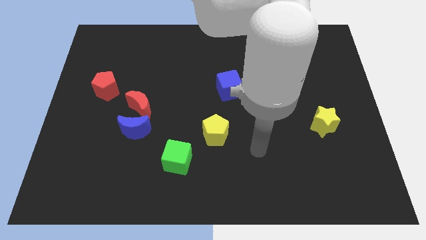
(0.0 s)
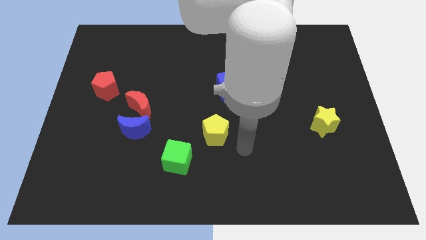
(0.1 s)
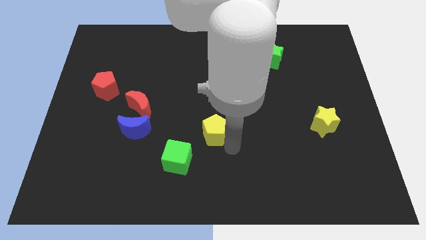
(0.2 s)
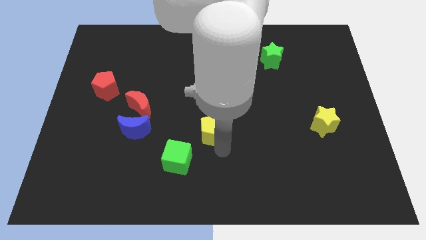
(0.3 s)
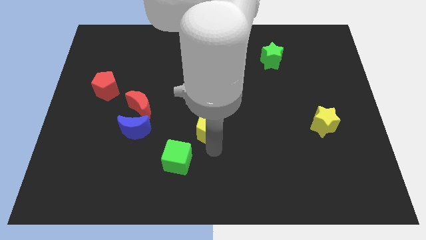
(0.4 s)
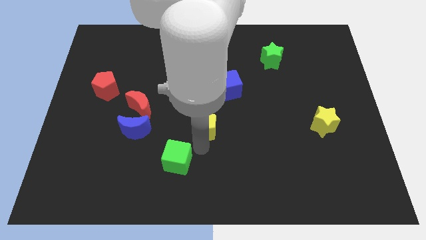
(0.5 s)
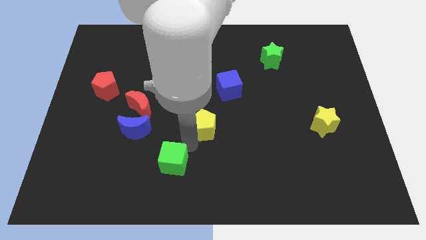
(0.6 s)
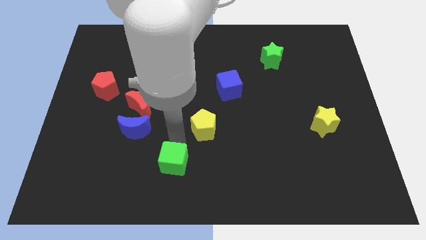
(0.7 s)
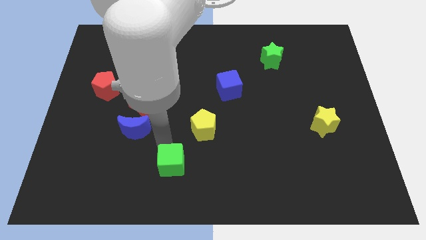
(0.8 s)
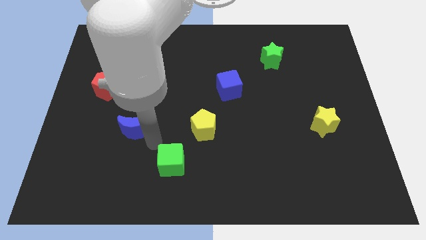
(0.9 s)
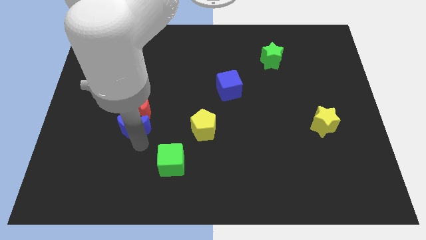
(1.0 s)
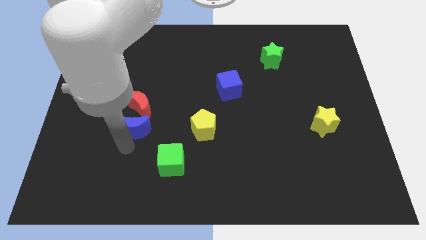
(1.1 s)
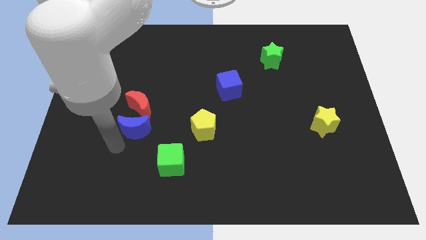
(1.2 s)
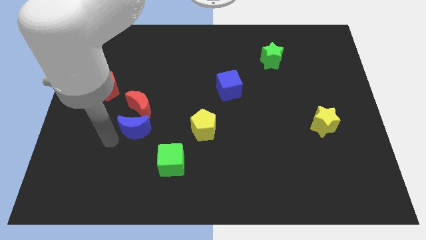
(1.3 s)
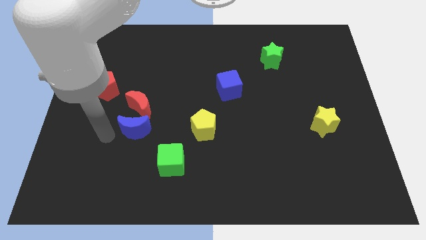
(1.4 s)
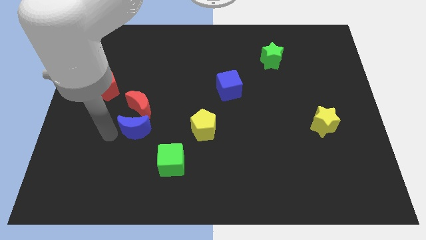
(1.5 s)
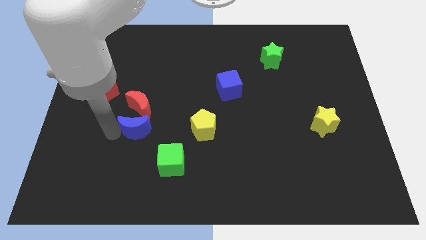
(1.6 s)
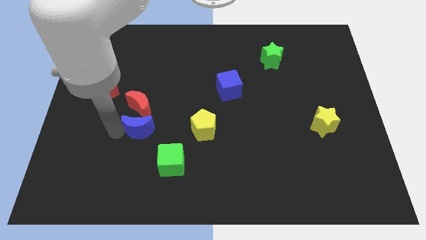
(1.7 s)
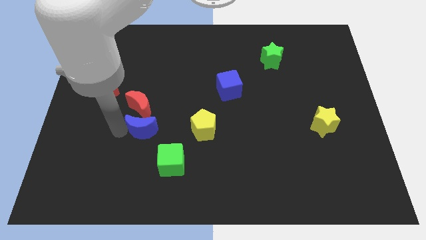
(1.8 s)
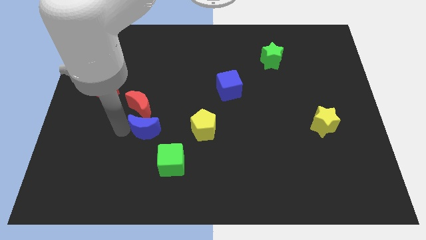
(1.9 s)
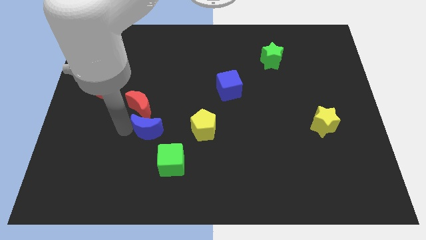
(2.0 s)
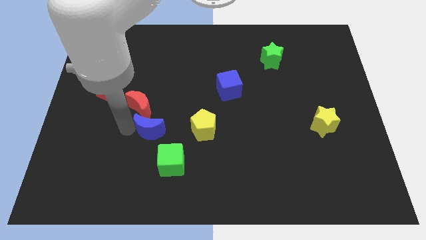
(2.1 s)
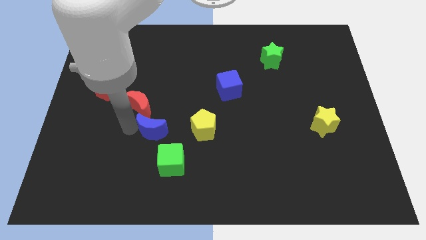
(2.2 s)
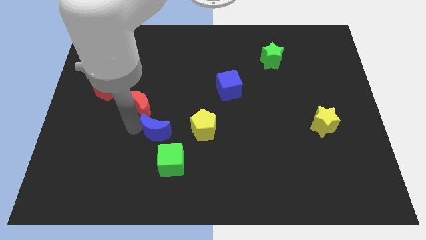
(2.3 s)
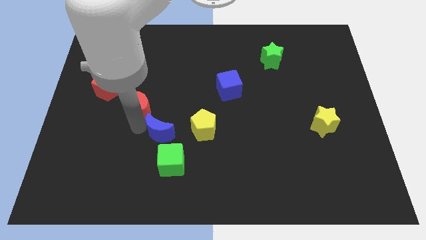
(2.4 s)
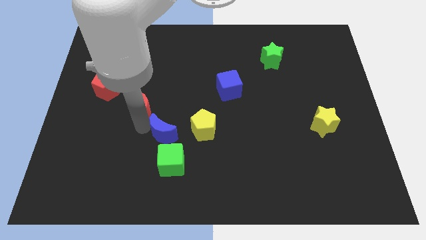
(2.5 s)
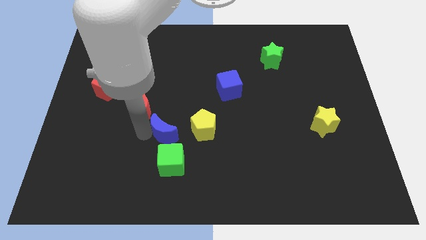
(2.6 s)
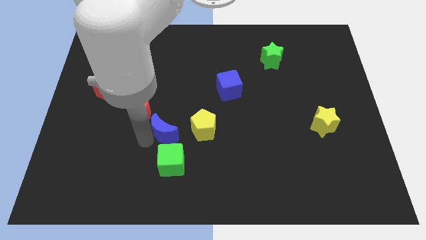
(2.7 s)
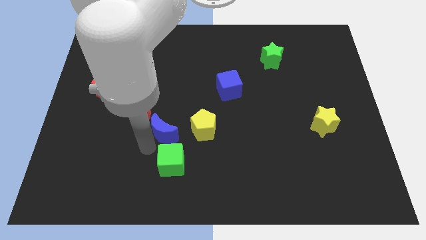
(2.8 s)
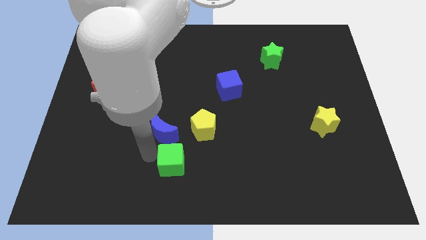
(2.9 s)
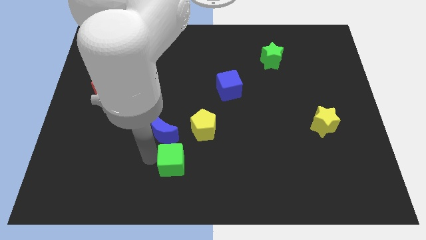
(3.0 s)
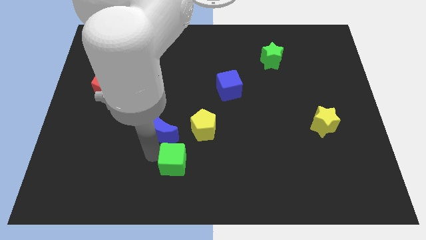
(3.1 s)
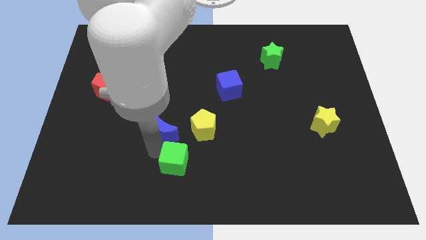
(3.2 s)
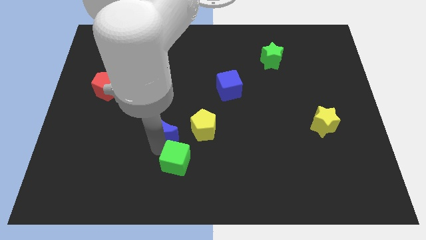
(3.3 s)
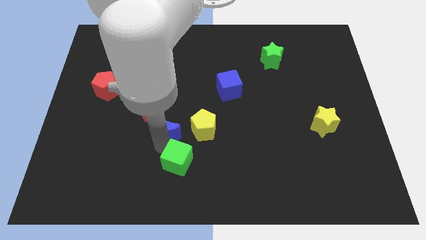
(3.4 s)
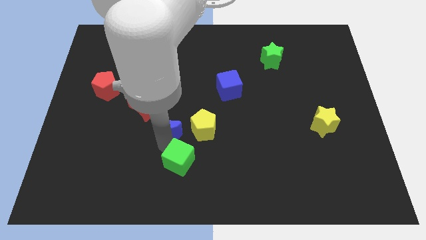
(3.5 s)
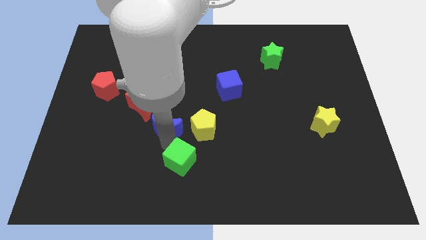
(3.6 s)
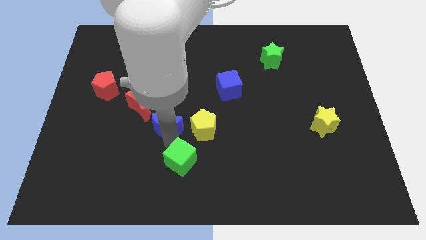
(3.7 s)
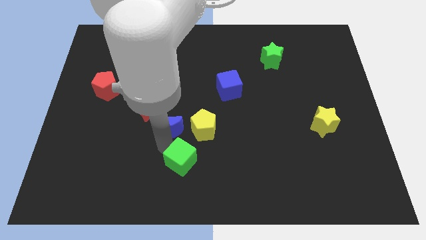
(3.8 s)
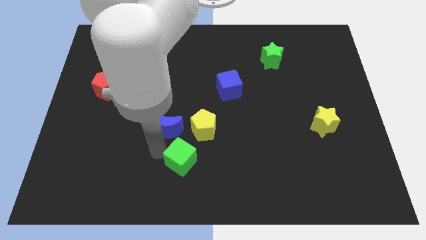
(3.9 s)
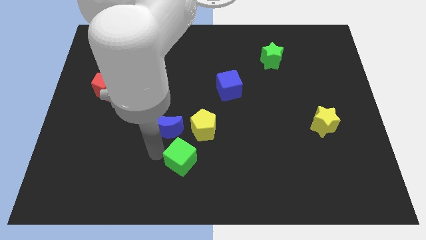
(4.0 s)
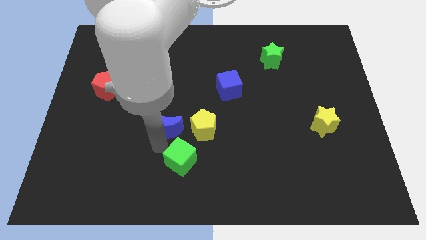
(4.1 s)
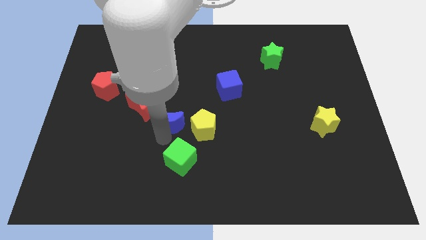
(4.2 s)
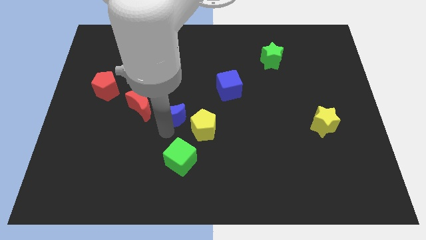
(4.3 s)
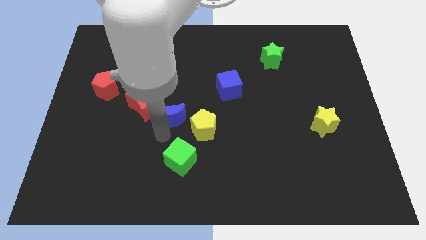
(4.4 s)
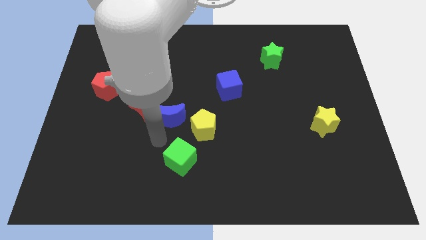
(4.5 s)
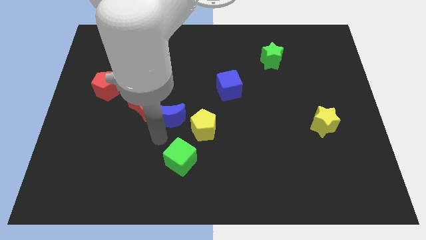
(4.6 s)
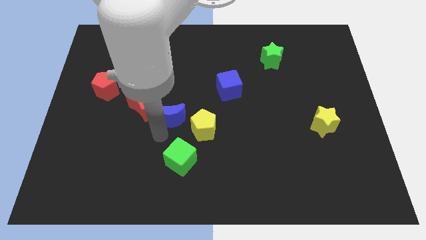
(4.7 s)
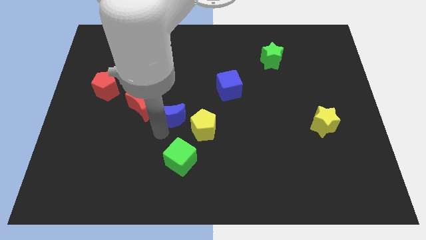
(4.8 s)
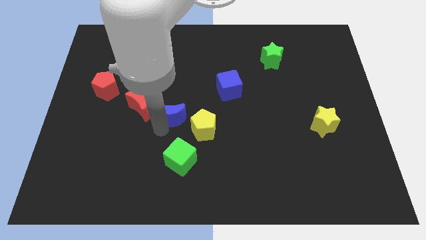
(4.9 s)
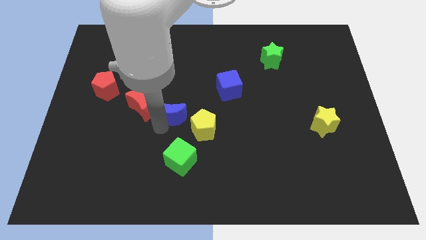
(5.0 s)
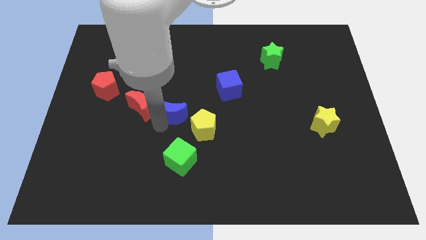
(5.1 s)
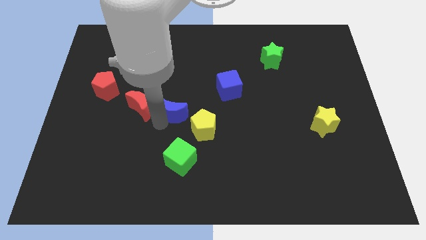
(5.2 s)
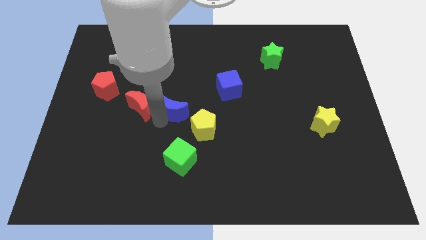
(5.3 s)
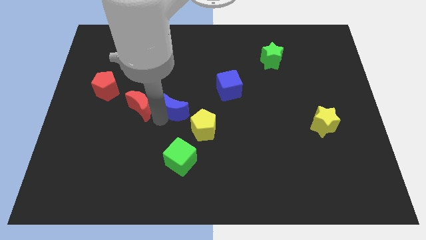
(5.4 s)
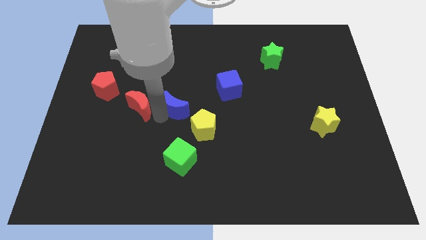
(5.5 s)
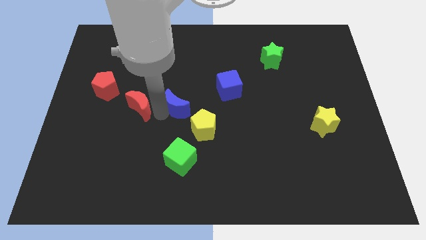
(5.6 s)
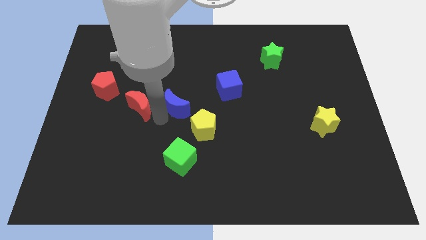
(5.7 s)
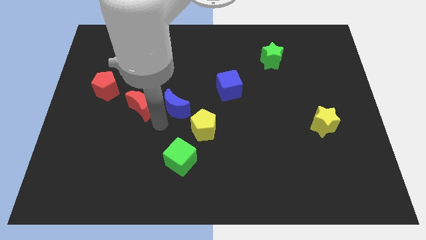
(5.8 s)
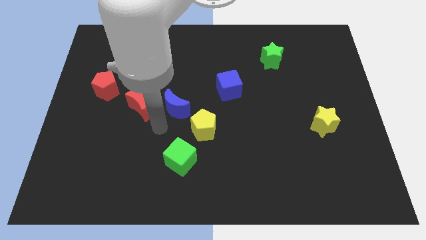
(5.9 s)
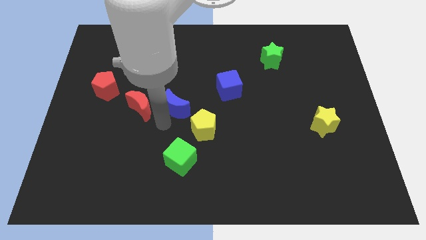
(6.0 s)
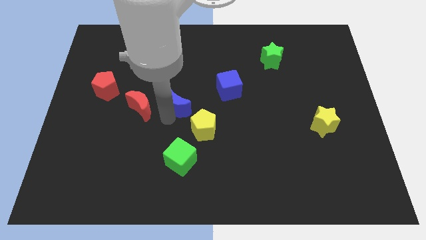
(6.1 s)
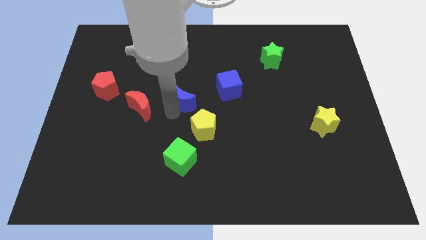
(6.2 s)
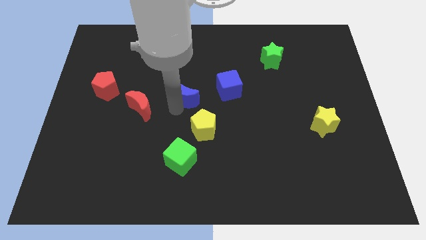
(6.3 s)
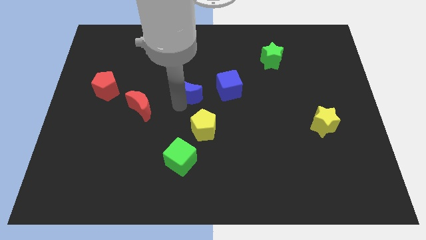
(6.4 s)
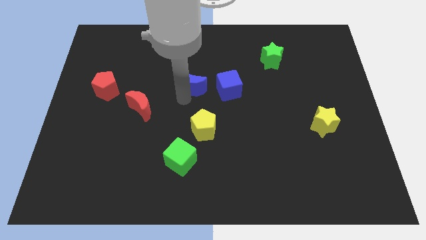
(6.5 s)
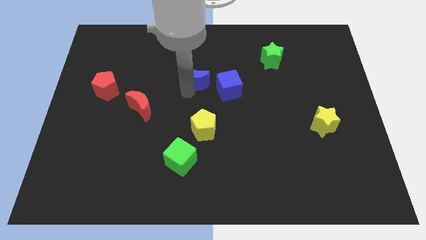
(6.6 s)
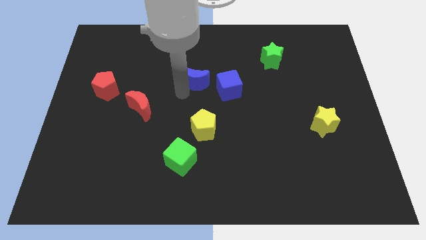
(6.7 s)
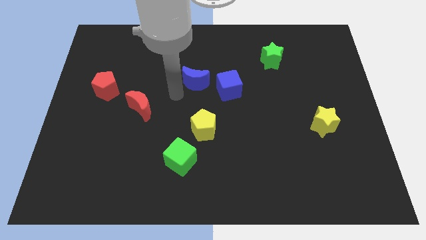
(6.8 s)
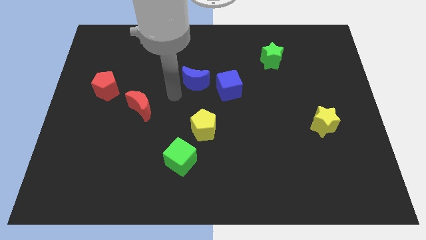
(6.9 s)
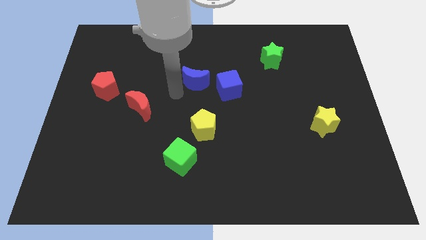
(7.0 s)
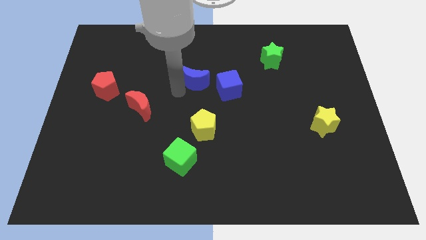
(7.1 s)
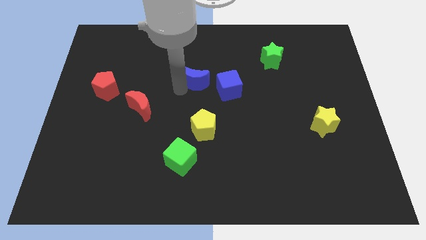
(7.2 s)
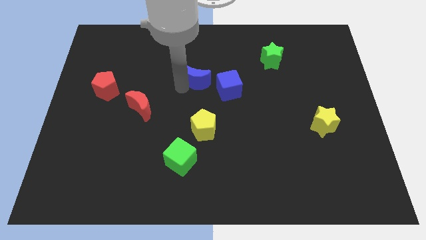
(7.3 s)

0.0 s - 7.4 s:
push the blue moon upwards and right diagonally

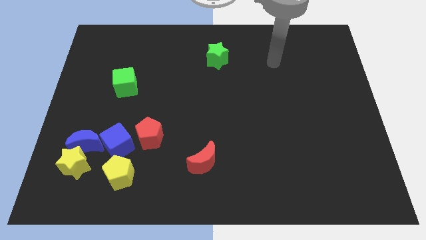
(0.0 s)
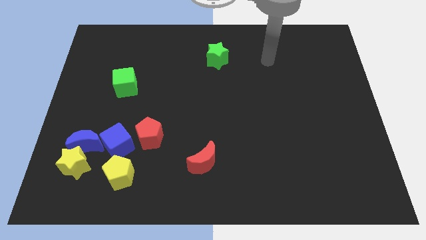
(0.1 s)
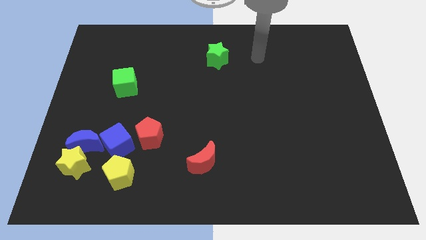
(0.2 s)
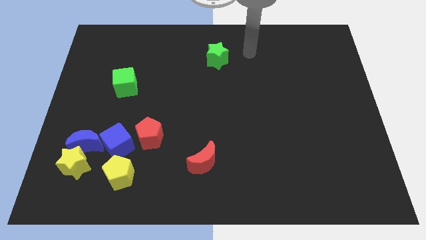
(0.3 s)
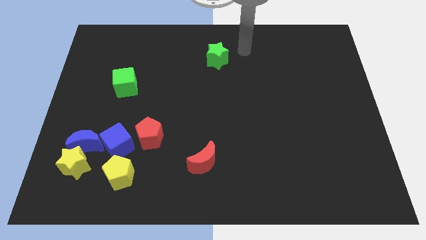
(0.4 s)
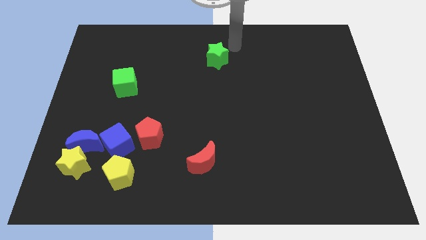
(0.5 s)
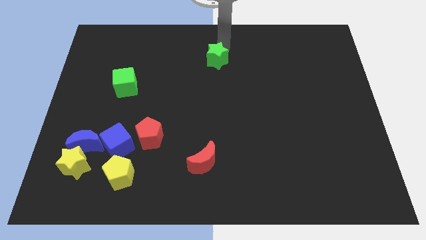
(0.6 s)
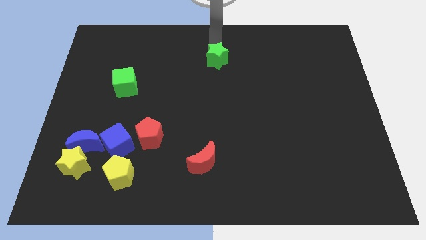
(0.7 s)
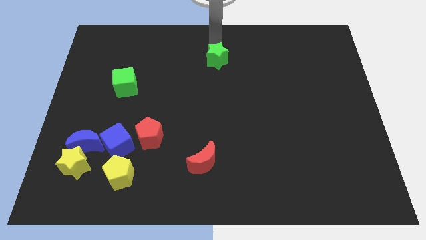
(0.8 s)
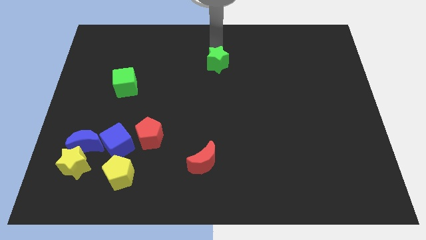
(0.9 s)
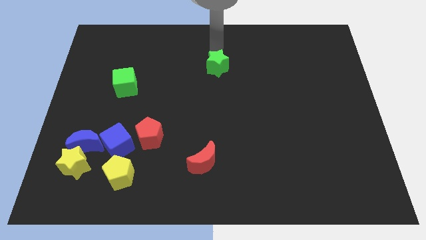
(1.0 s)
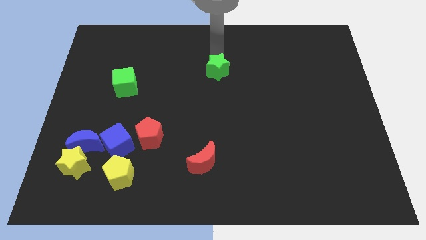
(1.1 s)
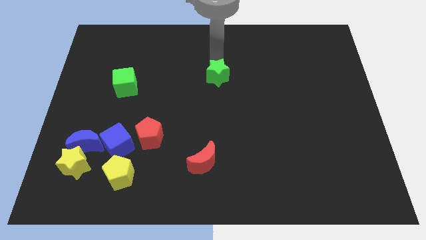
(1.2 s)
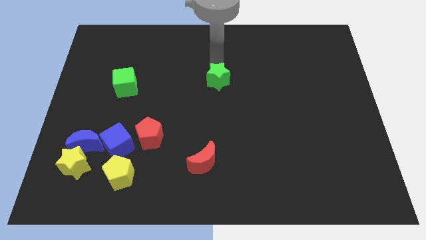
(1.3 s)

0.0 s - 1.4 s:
slide the green star downwards a little
